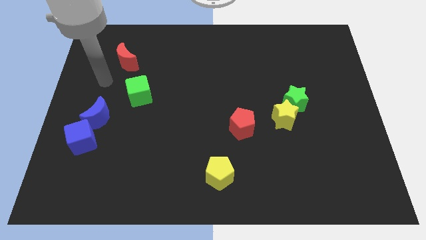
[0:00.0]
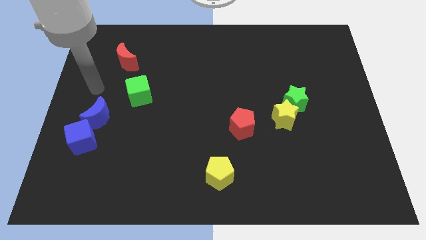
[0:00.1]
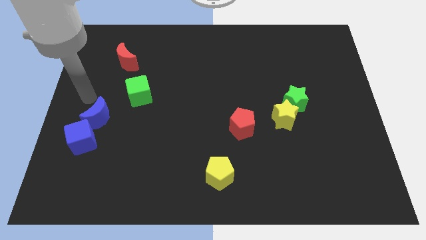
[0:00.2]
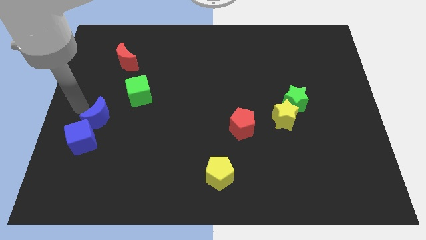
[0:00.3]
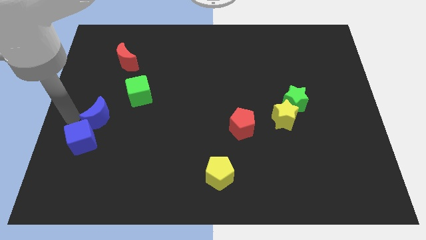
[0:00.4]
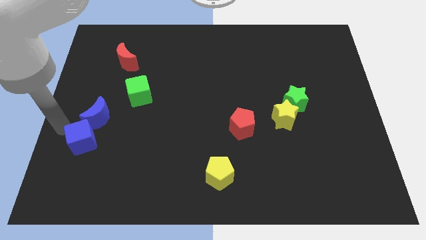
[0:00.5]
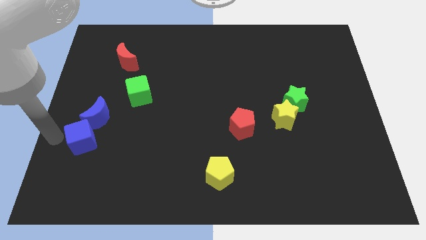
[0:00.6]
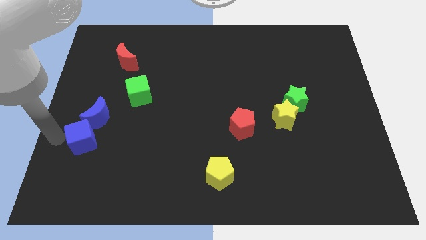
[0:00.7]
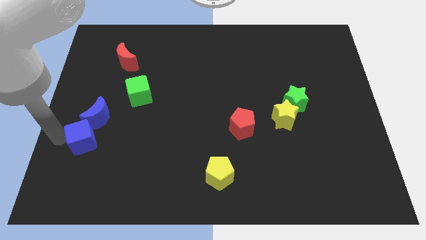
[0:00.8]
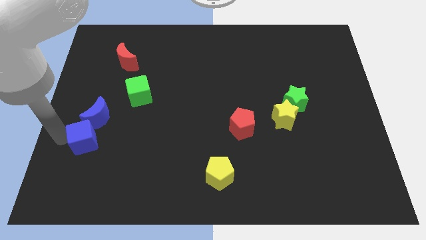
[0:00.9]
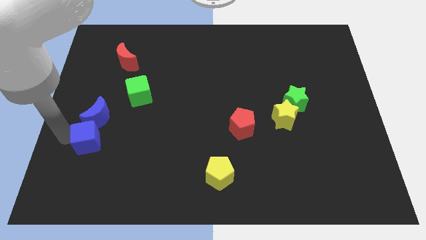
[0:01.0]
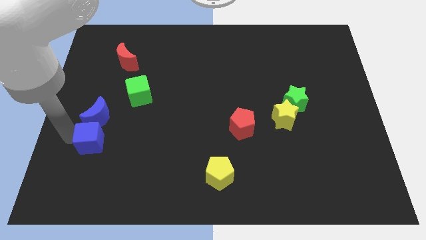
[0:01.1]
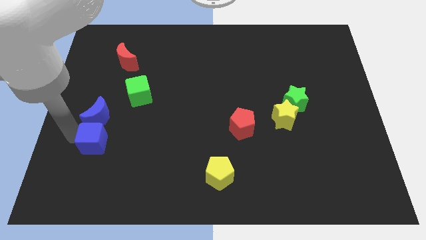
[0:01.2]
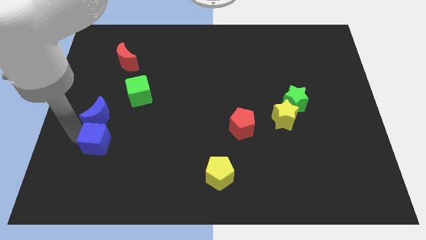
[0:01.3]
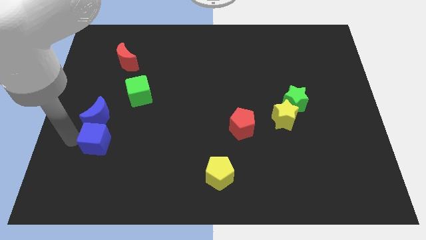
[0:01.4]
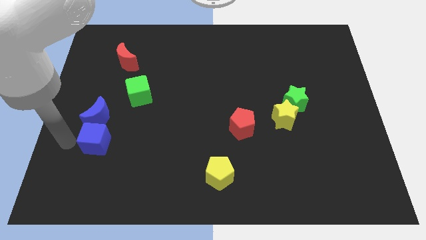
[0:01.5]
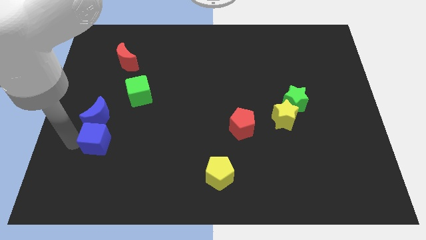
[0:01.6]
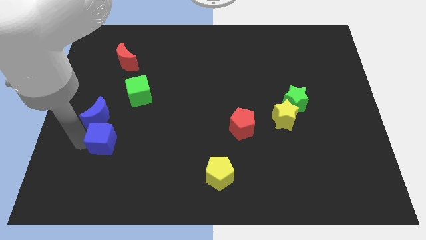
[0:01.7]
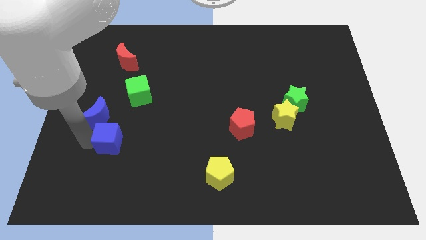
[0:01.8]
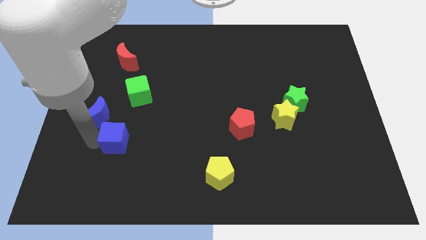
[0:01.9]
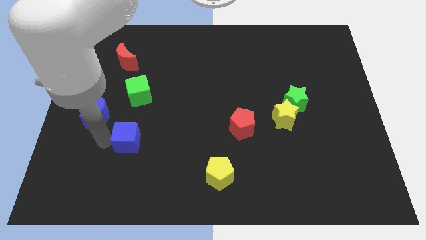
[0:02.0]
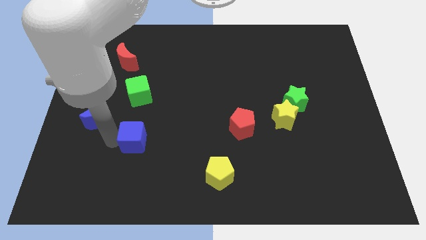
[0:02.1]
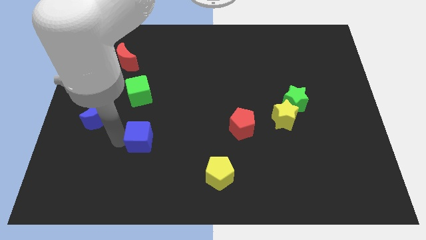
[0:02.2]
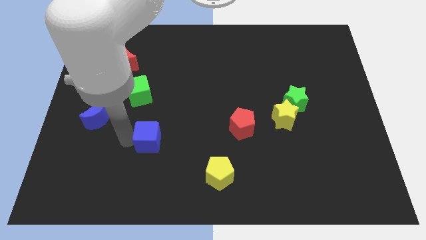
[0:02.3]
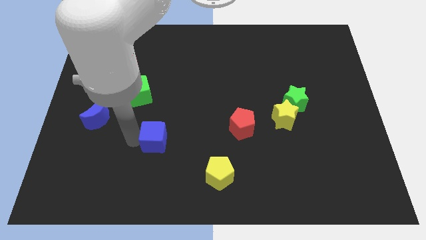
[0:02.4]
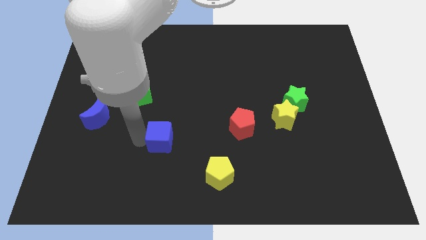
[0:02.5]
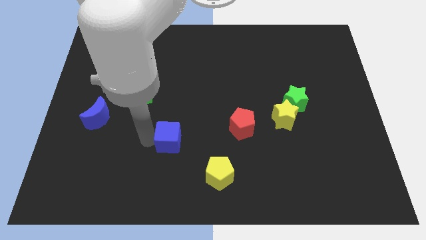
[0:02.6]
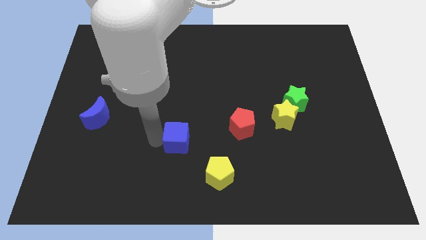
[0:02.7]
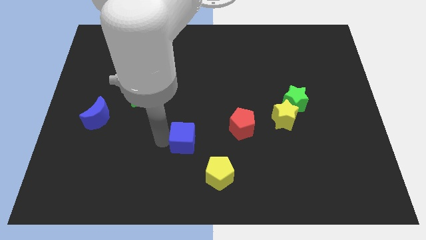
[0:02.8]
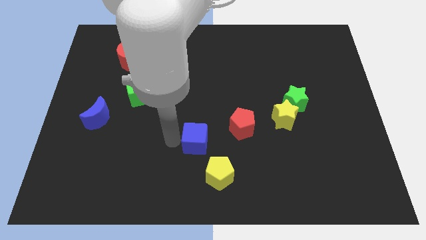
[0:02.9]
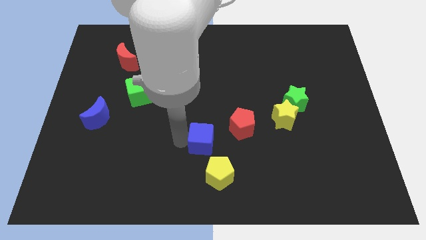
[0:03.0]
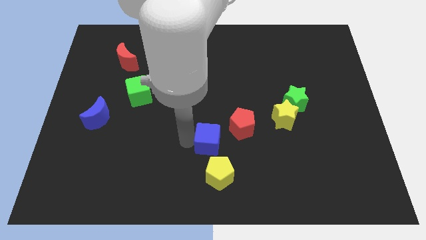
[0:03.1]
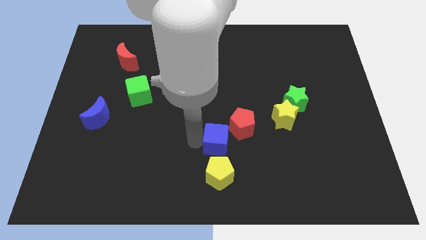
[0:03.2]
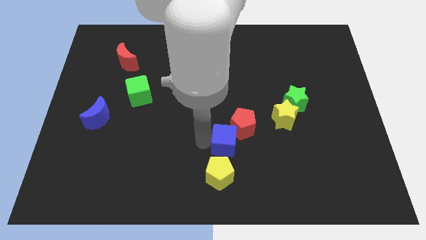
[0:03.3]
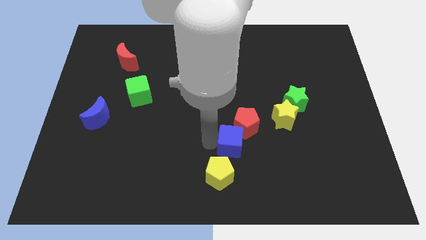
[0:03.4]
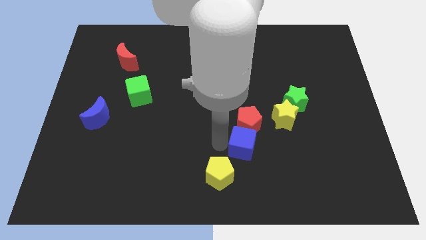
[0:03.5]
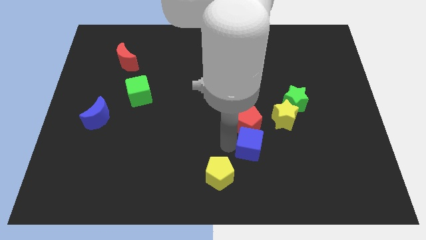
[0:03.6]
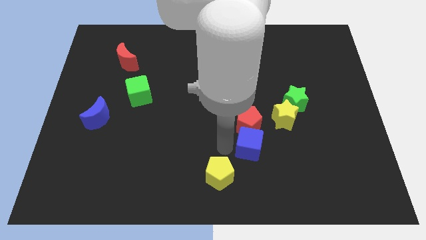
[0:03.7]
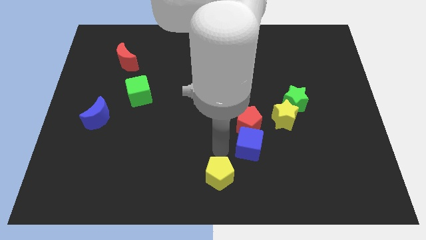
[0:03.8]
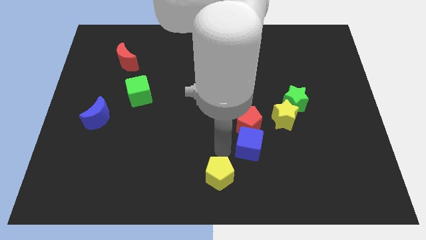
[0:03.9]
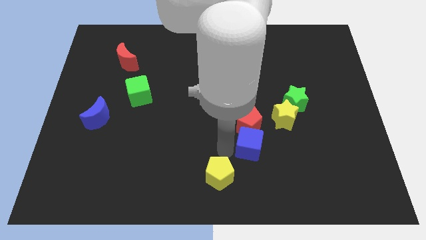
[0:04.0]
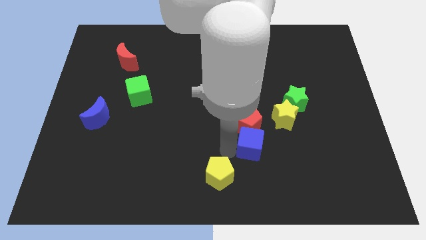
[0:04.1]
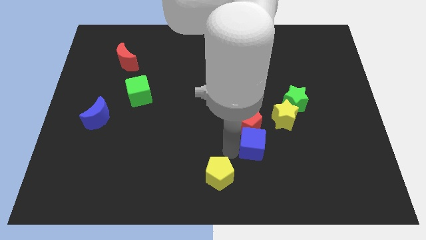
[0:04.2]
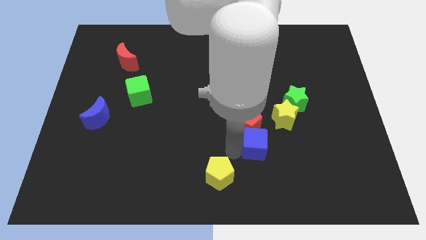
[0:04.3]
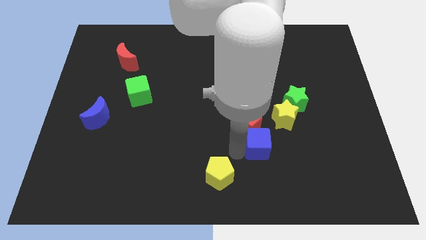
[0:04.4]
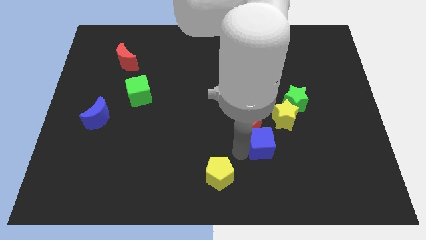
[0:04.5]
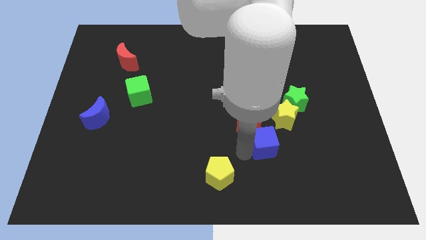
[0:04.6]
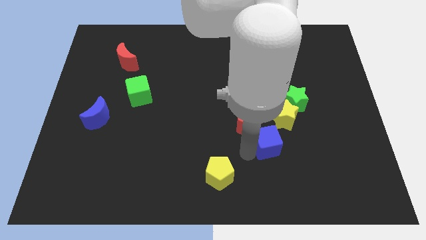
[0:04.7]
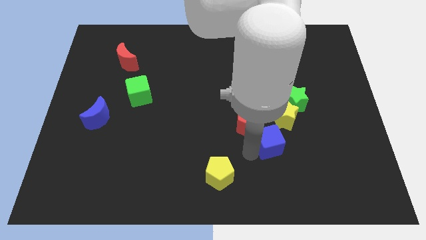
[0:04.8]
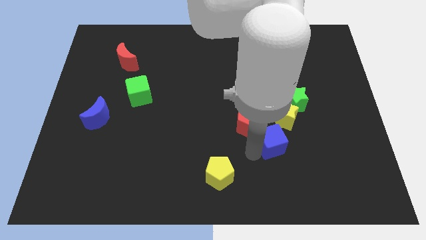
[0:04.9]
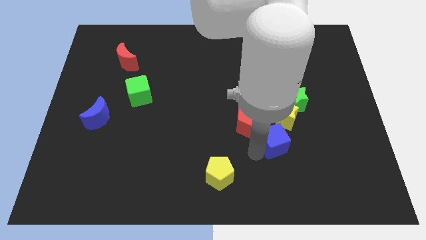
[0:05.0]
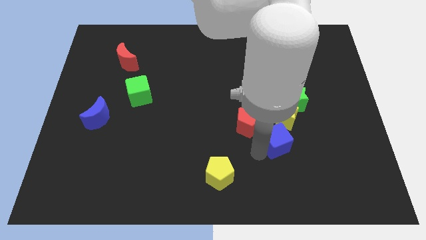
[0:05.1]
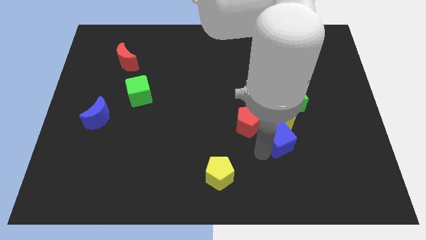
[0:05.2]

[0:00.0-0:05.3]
put the blue cube just right of the red pentagon

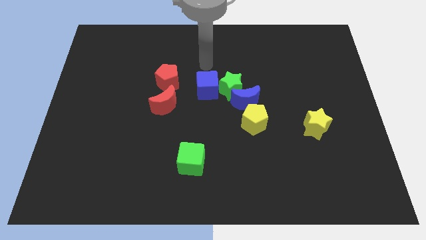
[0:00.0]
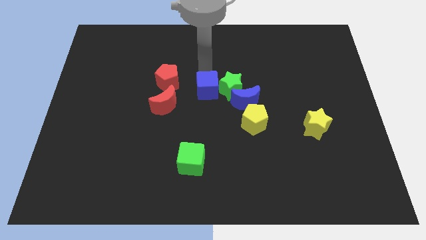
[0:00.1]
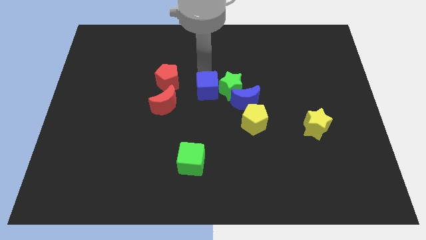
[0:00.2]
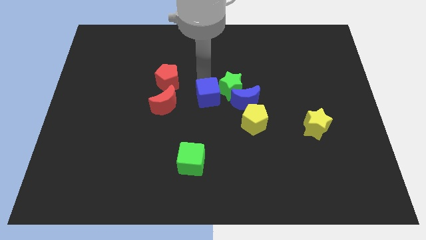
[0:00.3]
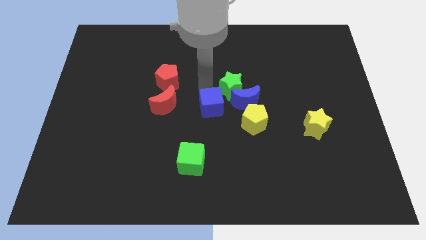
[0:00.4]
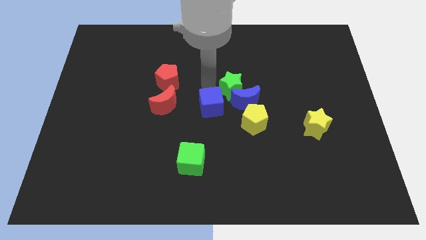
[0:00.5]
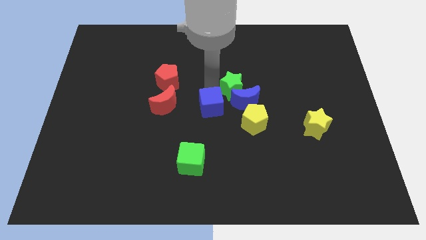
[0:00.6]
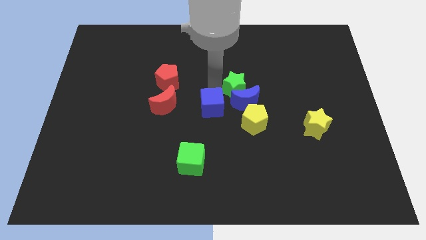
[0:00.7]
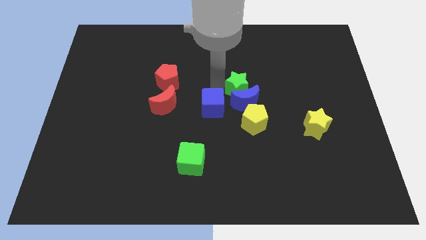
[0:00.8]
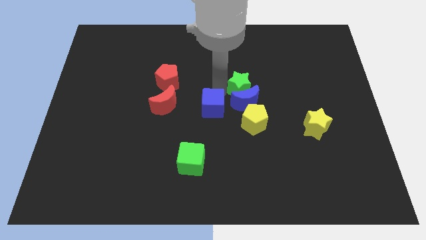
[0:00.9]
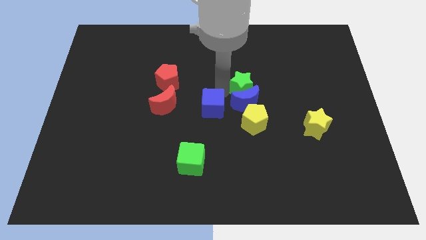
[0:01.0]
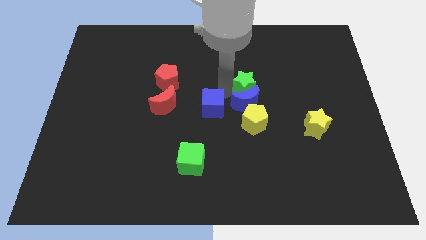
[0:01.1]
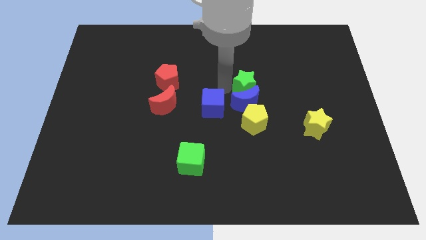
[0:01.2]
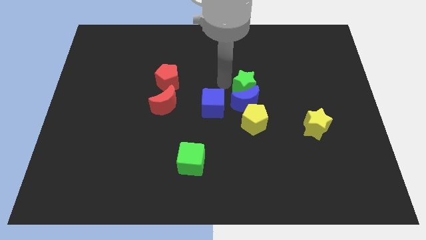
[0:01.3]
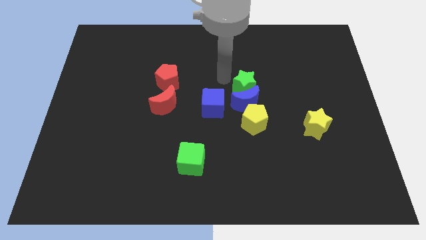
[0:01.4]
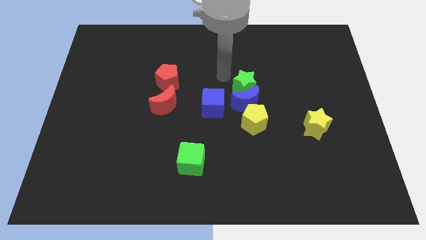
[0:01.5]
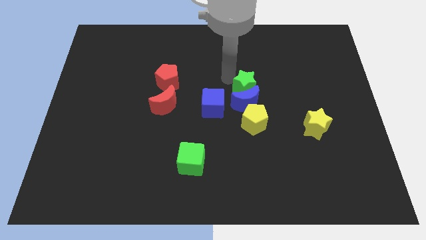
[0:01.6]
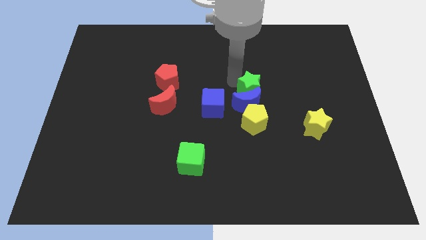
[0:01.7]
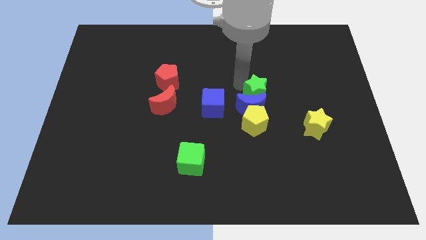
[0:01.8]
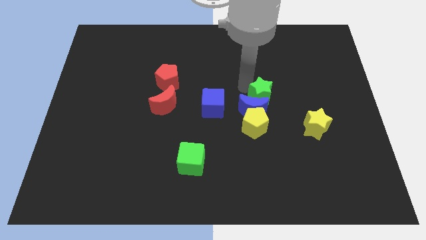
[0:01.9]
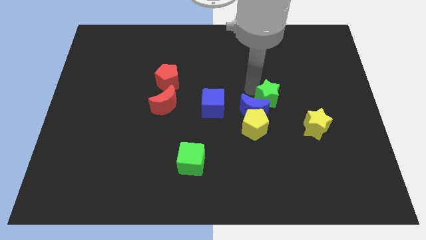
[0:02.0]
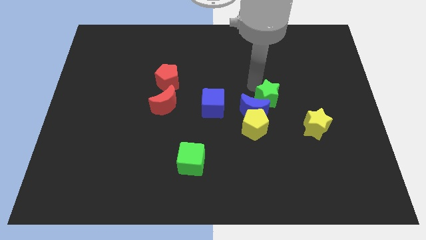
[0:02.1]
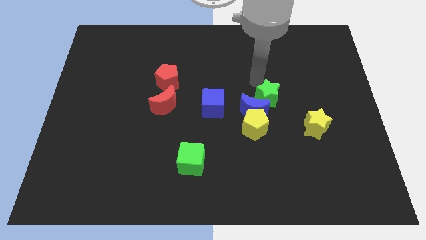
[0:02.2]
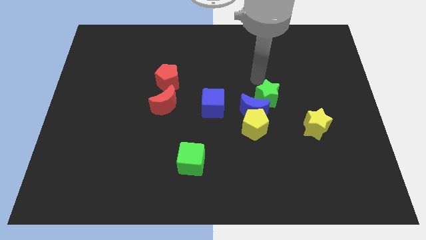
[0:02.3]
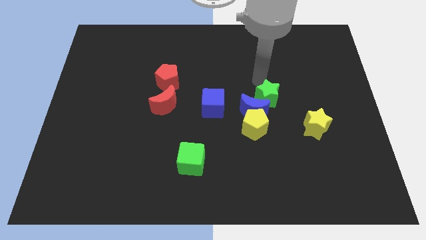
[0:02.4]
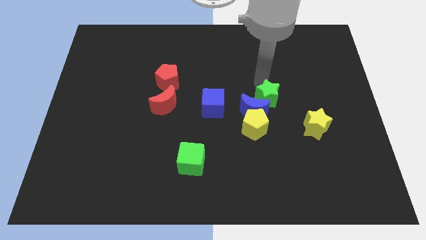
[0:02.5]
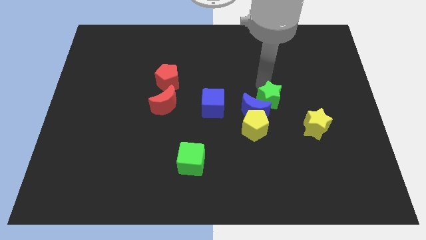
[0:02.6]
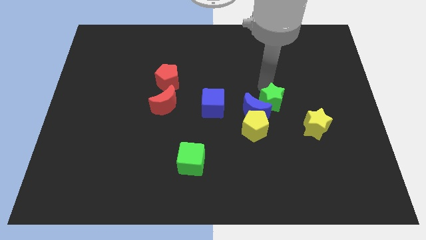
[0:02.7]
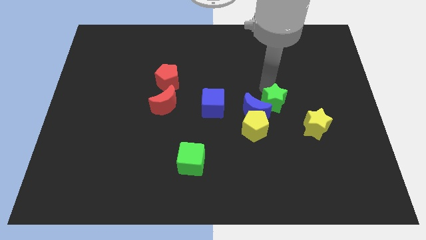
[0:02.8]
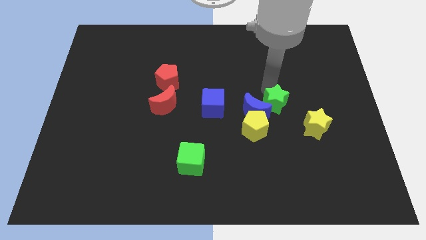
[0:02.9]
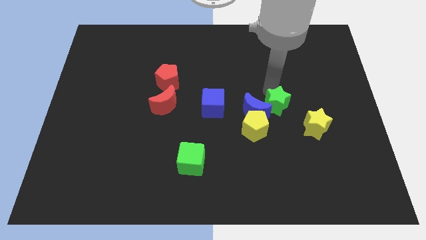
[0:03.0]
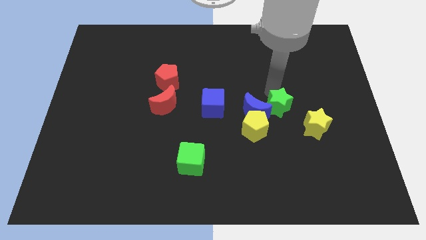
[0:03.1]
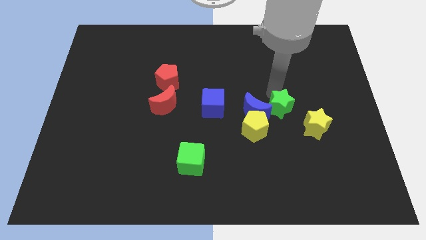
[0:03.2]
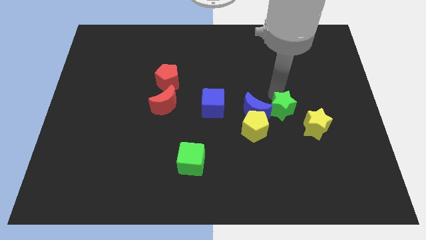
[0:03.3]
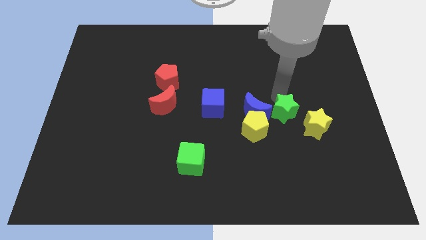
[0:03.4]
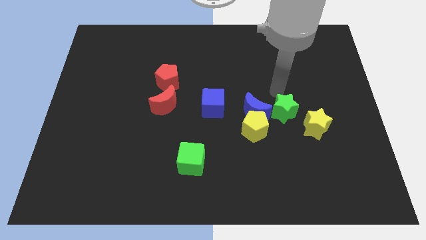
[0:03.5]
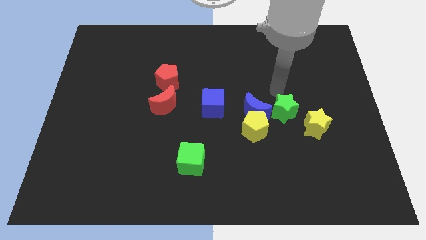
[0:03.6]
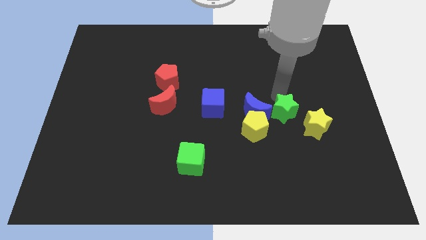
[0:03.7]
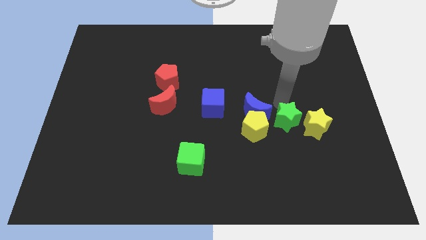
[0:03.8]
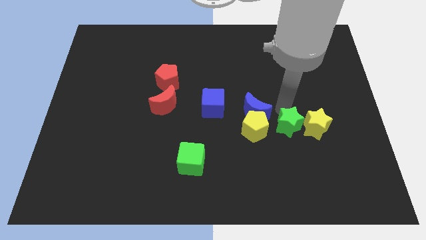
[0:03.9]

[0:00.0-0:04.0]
put the green star to the bottom left of the yellow star
